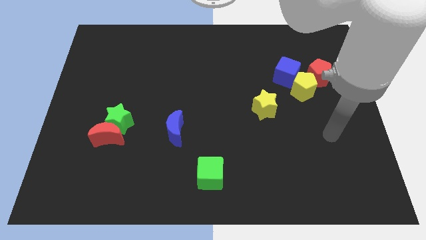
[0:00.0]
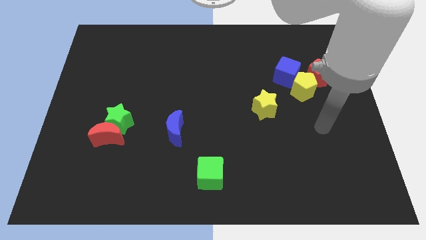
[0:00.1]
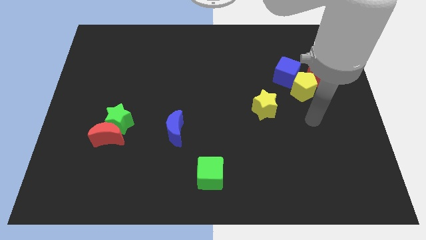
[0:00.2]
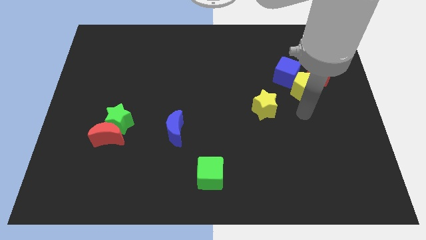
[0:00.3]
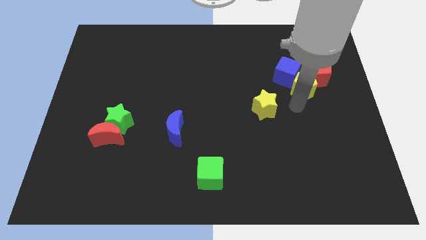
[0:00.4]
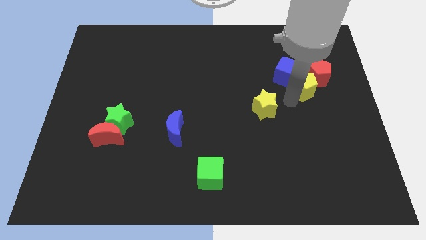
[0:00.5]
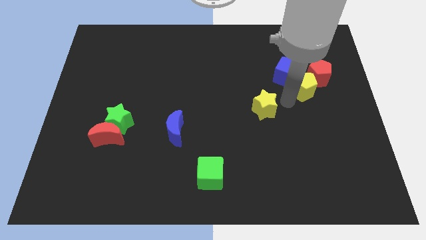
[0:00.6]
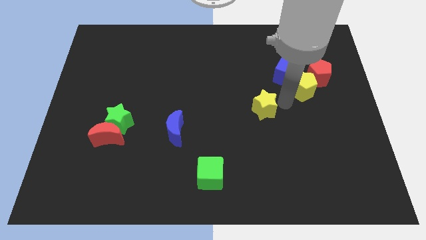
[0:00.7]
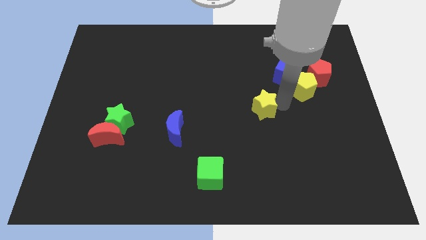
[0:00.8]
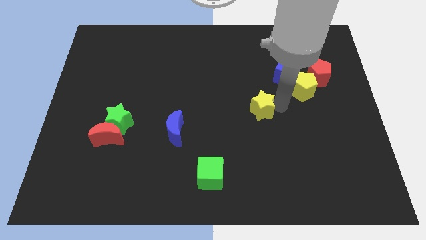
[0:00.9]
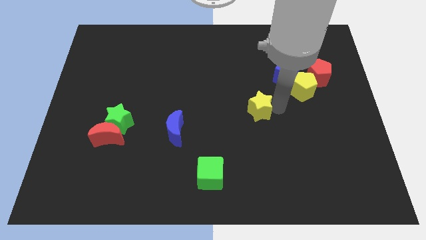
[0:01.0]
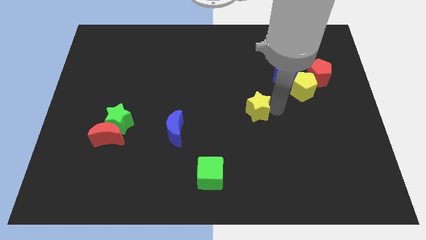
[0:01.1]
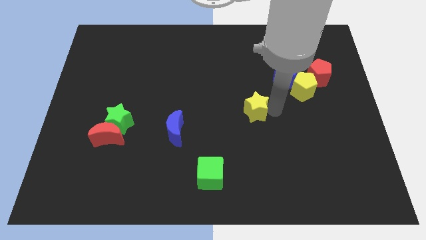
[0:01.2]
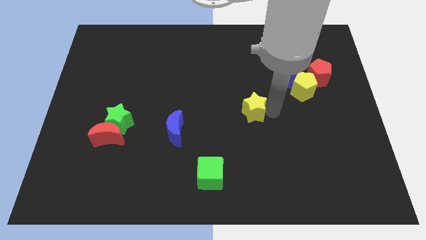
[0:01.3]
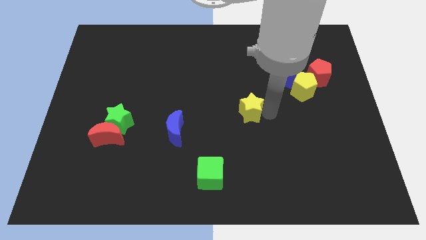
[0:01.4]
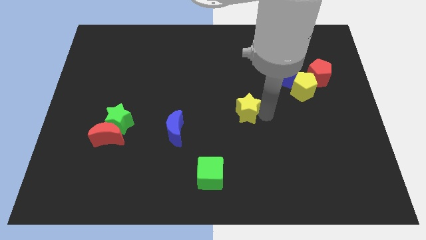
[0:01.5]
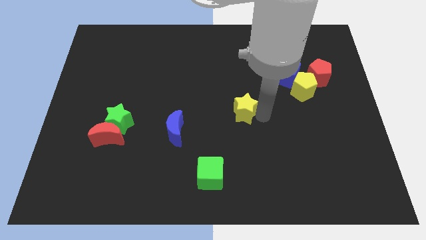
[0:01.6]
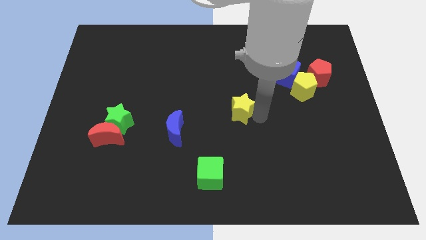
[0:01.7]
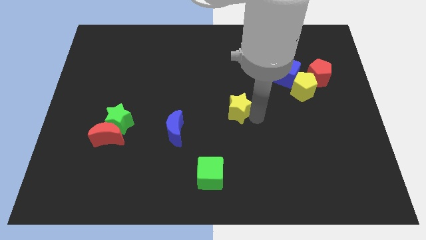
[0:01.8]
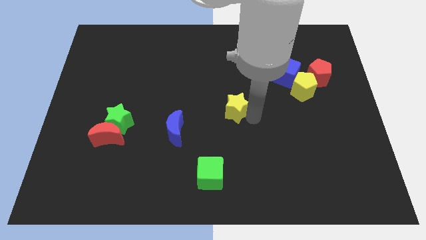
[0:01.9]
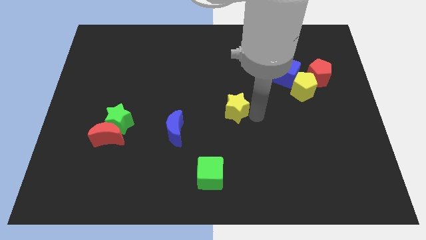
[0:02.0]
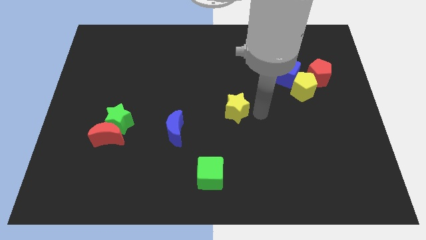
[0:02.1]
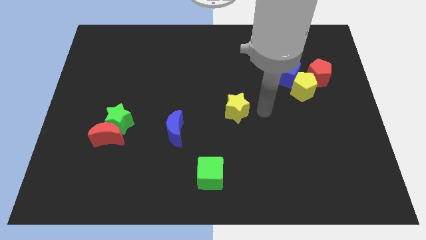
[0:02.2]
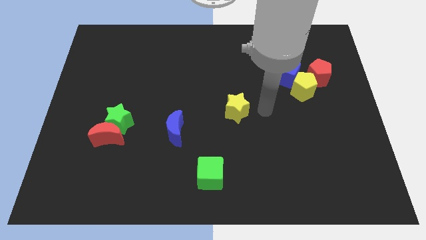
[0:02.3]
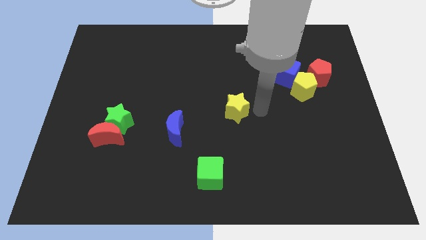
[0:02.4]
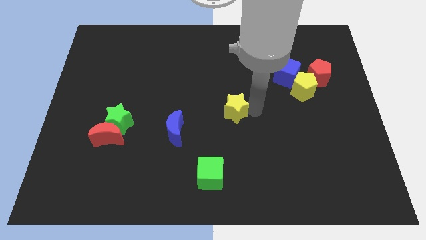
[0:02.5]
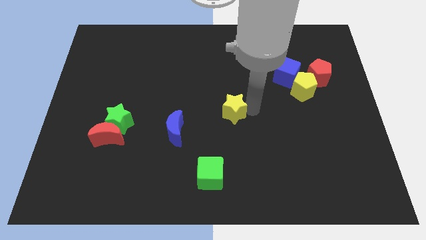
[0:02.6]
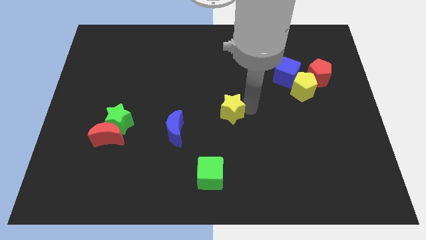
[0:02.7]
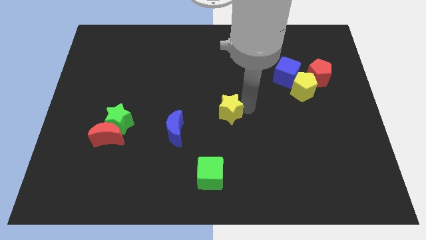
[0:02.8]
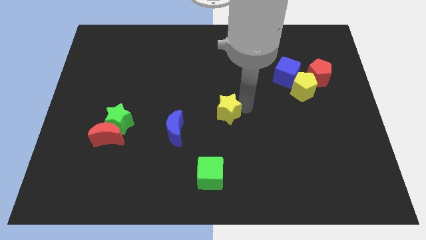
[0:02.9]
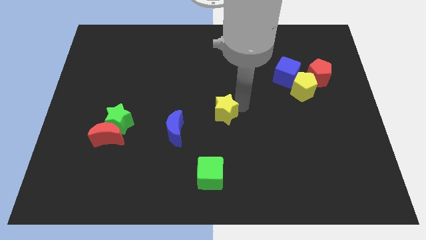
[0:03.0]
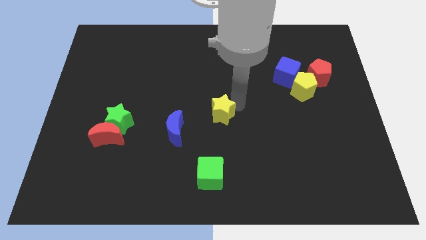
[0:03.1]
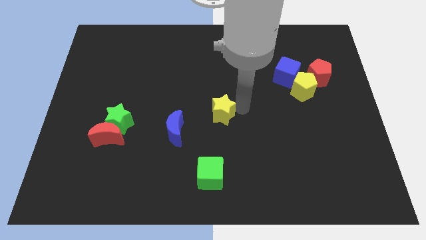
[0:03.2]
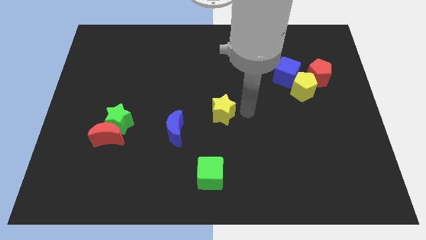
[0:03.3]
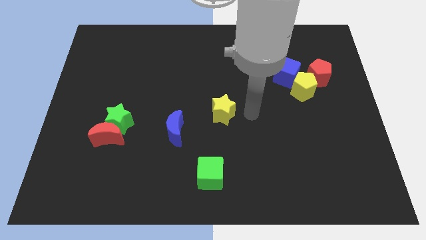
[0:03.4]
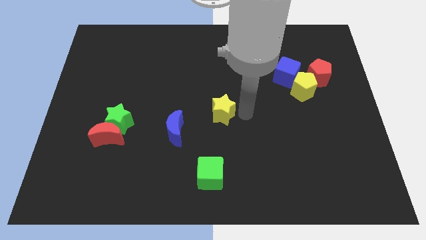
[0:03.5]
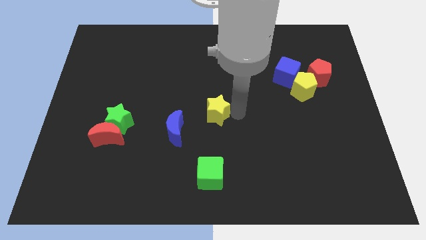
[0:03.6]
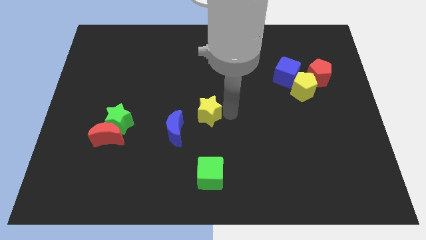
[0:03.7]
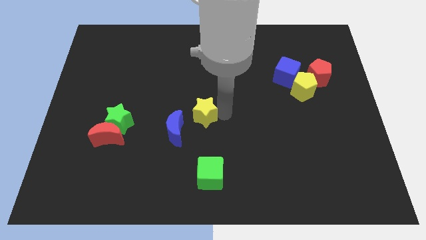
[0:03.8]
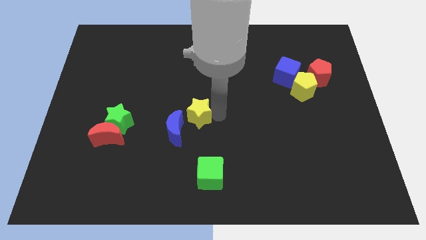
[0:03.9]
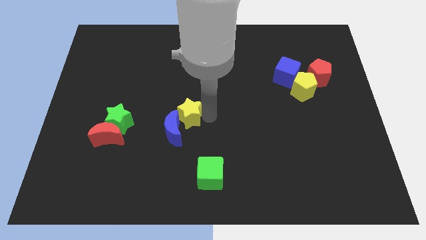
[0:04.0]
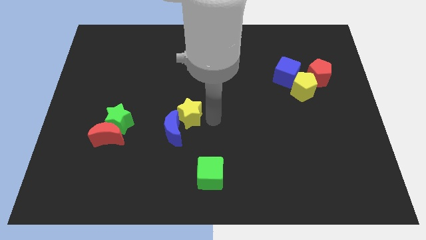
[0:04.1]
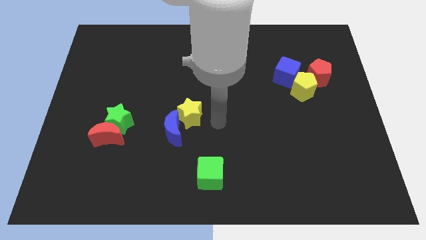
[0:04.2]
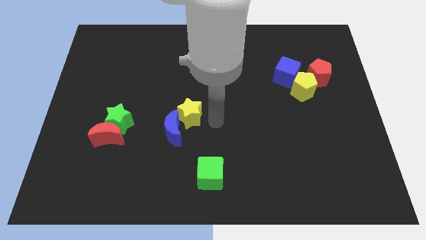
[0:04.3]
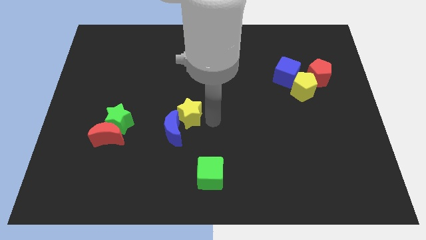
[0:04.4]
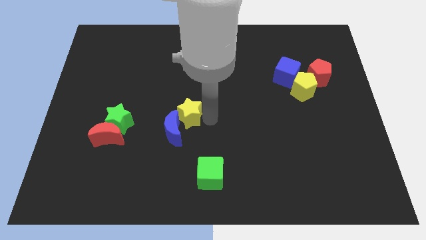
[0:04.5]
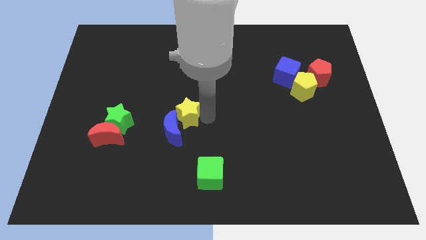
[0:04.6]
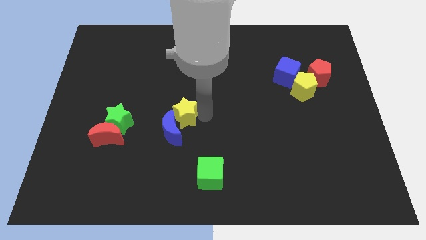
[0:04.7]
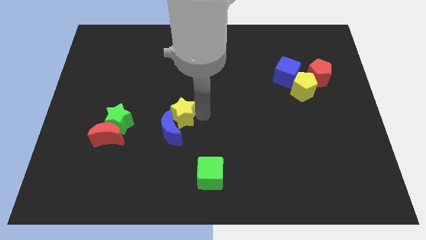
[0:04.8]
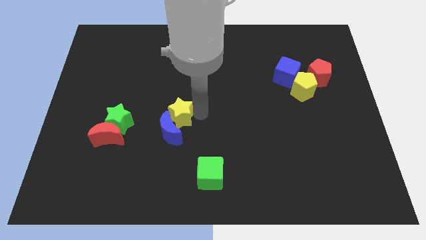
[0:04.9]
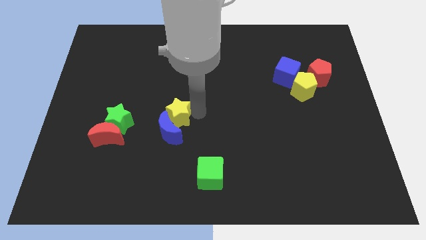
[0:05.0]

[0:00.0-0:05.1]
push the yellow star to the left

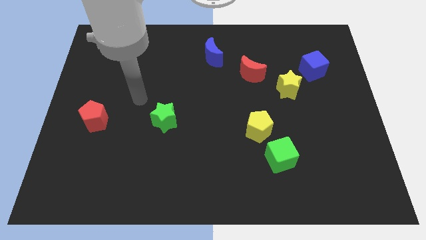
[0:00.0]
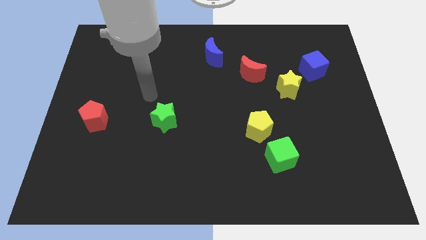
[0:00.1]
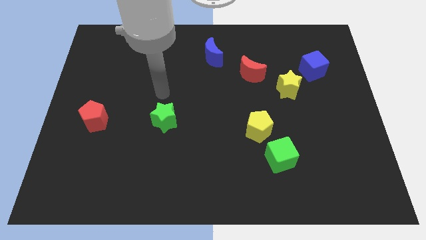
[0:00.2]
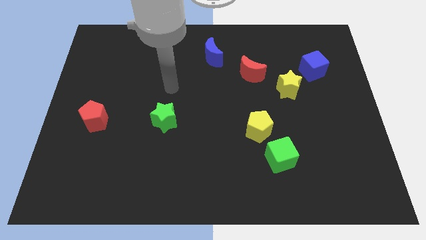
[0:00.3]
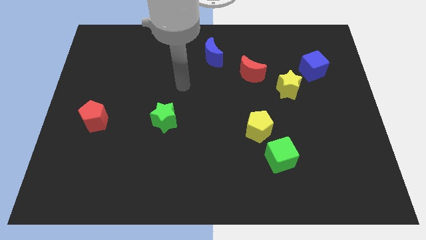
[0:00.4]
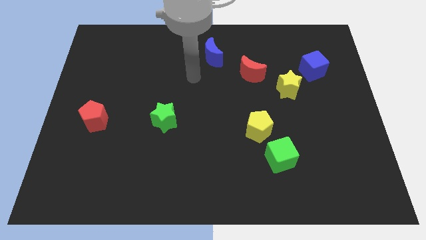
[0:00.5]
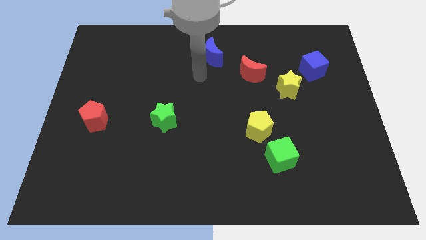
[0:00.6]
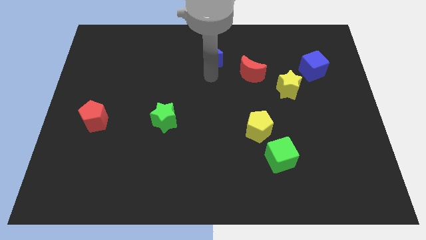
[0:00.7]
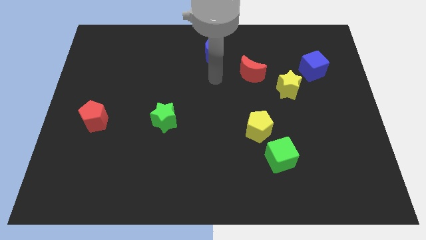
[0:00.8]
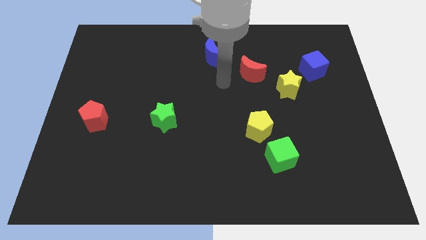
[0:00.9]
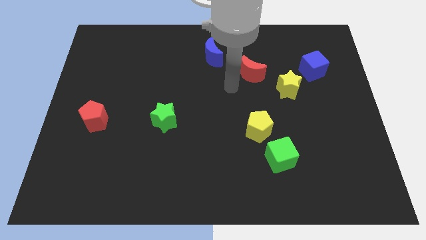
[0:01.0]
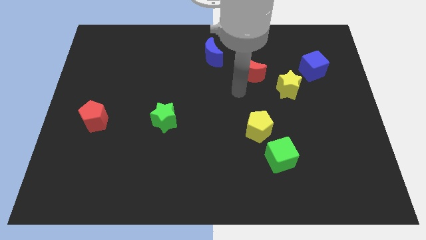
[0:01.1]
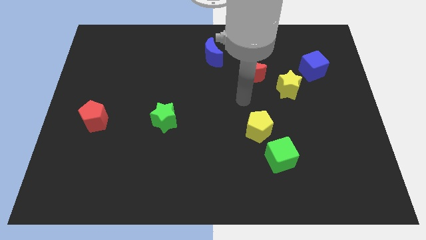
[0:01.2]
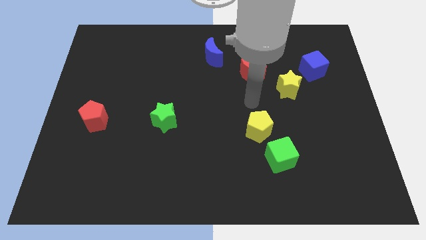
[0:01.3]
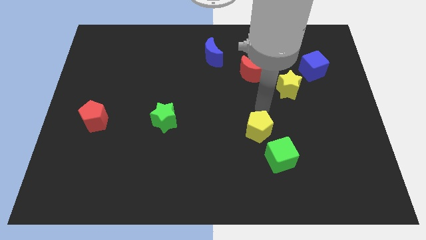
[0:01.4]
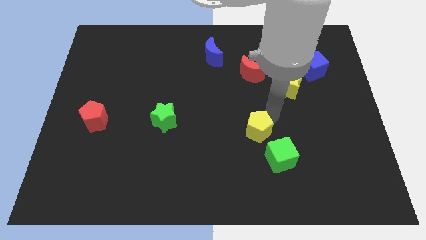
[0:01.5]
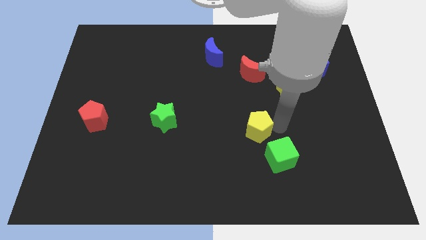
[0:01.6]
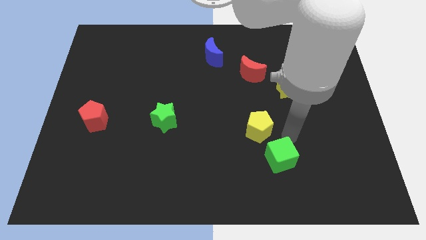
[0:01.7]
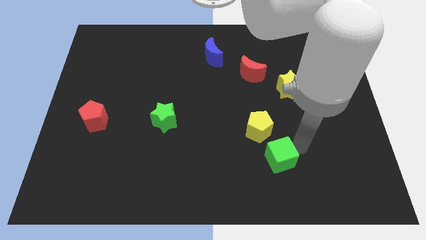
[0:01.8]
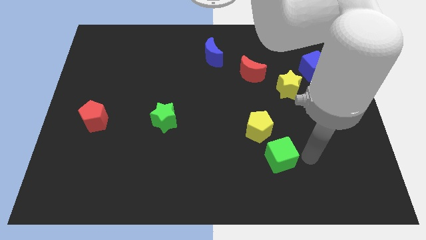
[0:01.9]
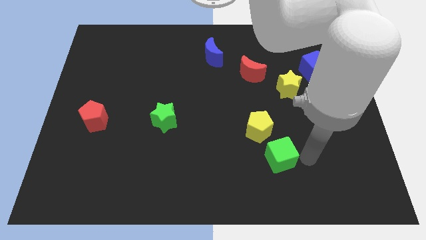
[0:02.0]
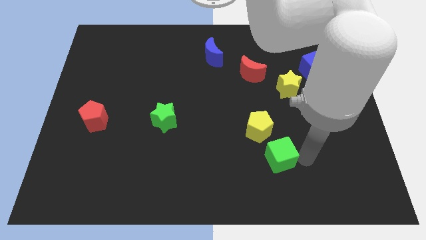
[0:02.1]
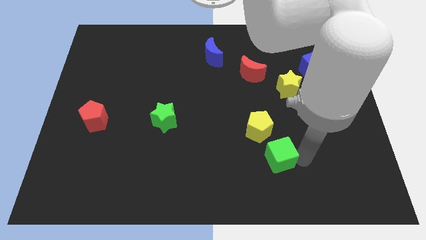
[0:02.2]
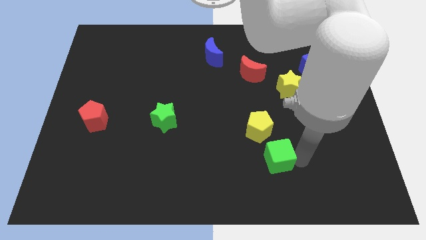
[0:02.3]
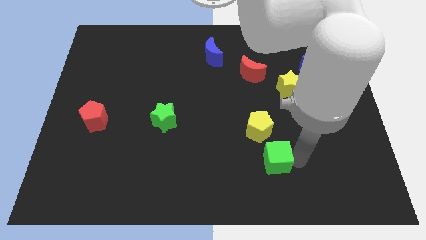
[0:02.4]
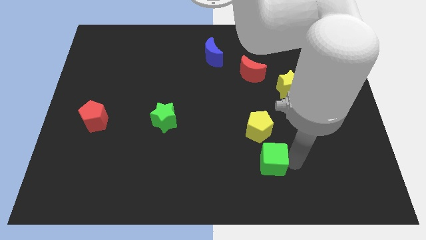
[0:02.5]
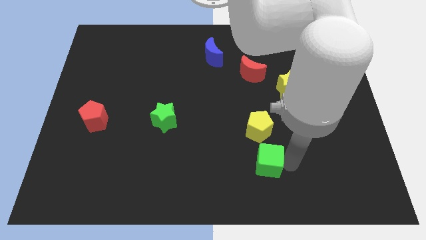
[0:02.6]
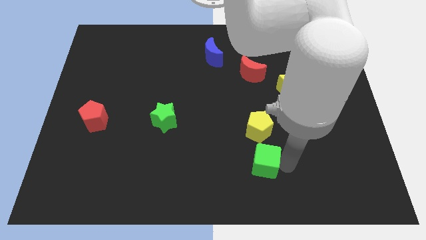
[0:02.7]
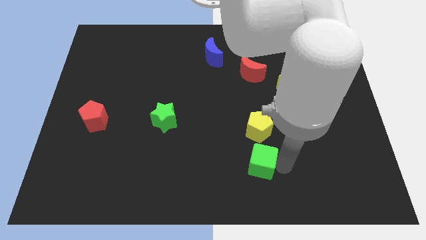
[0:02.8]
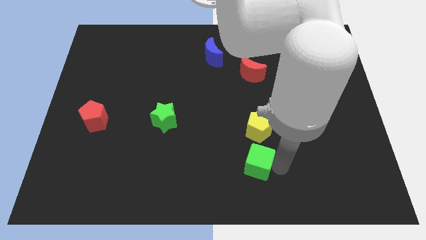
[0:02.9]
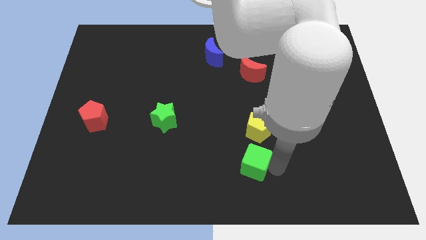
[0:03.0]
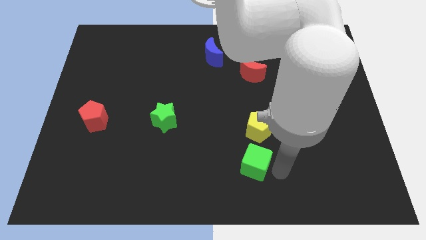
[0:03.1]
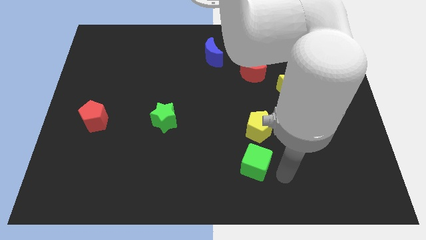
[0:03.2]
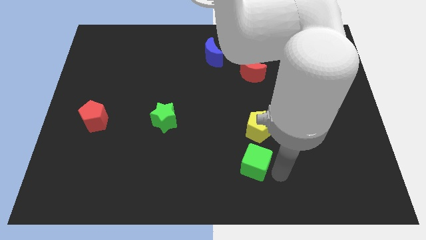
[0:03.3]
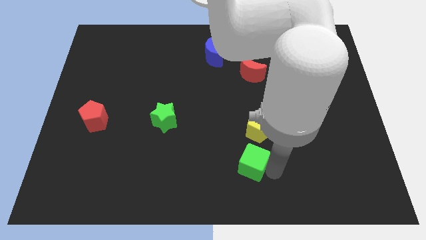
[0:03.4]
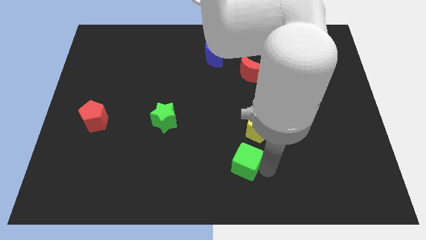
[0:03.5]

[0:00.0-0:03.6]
move the green cube left a bit
